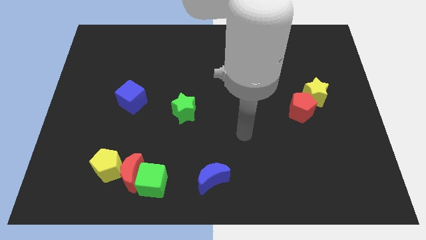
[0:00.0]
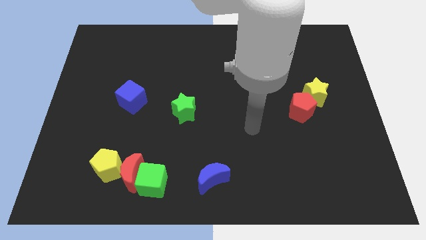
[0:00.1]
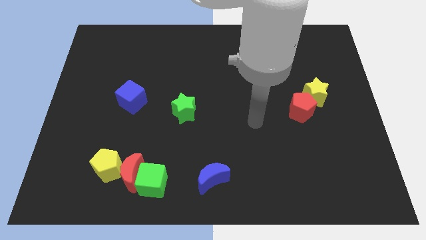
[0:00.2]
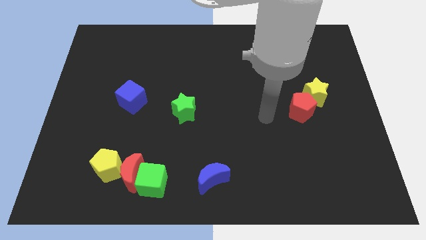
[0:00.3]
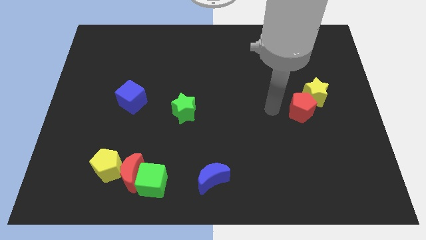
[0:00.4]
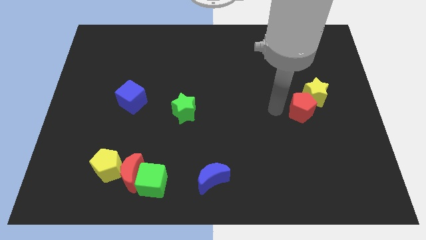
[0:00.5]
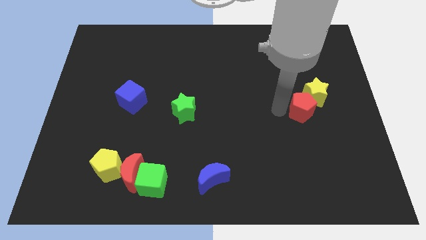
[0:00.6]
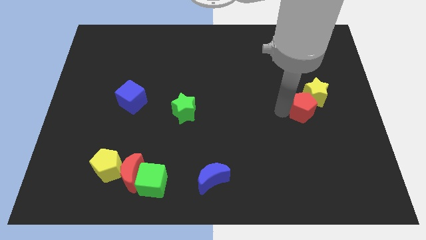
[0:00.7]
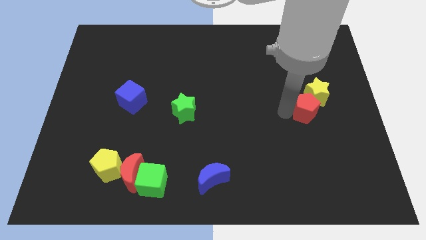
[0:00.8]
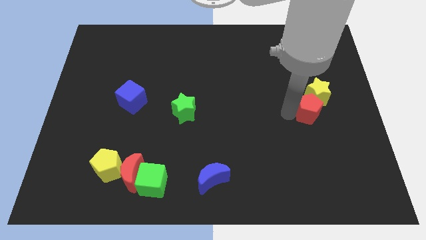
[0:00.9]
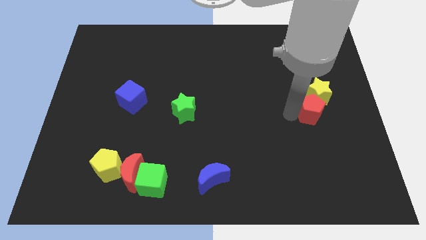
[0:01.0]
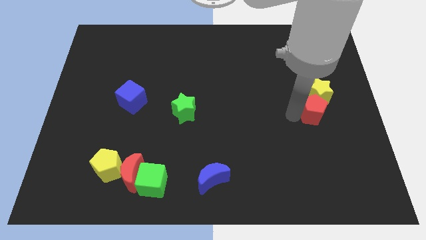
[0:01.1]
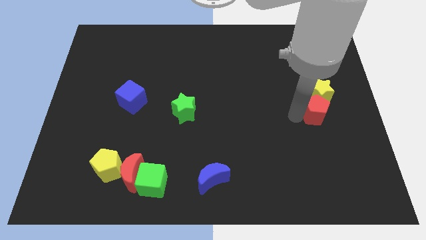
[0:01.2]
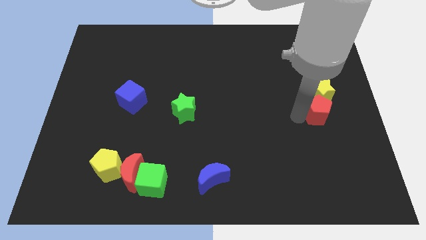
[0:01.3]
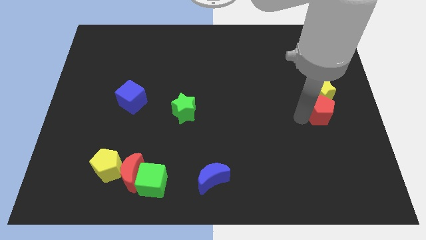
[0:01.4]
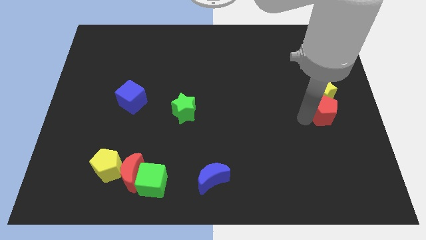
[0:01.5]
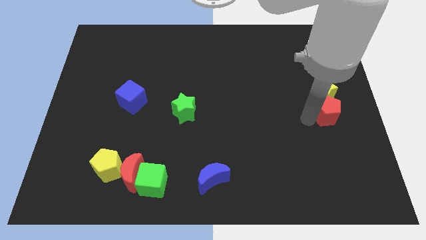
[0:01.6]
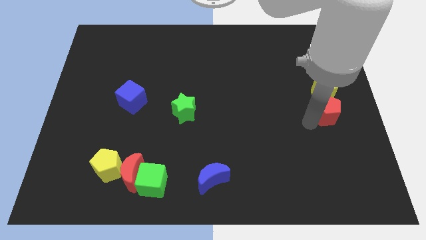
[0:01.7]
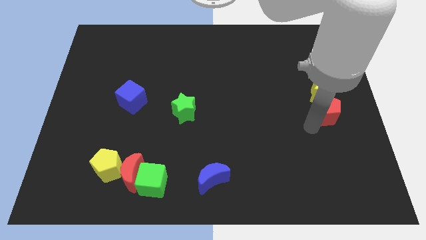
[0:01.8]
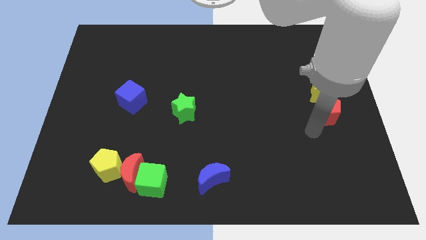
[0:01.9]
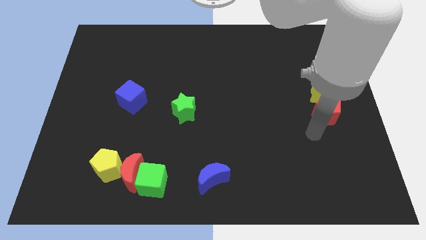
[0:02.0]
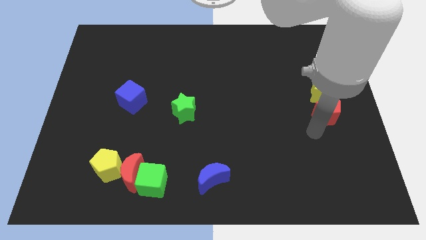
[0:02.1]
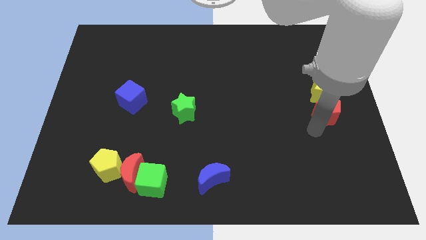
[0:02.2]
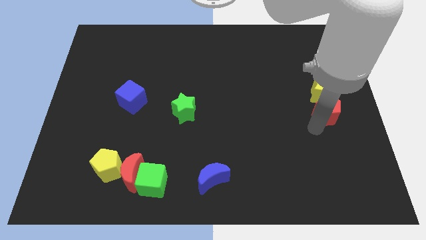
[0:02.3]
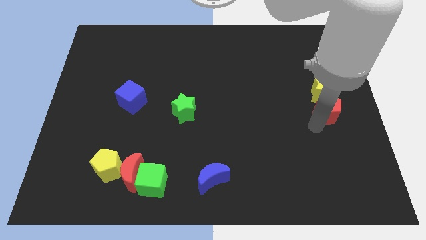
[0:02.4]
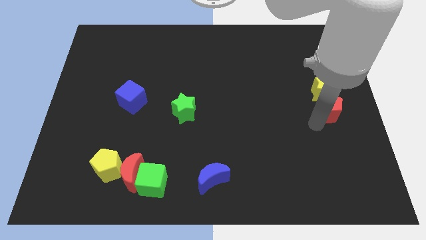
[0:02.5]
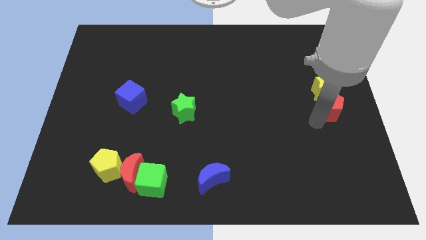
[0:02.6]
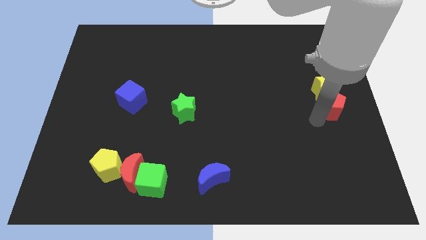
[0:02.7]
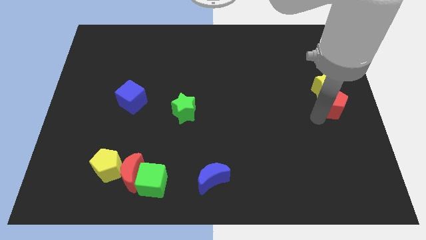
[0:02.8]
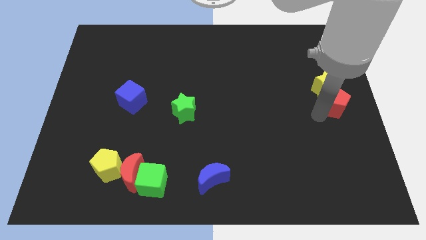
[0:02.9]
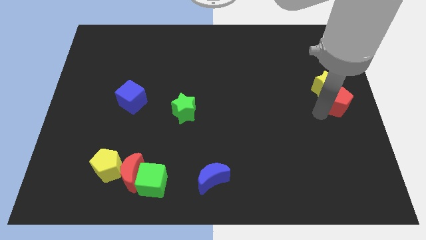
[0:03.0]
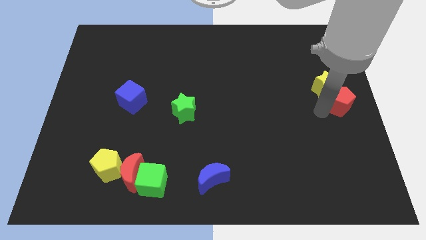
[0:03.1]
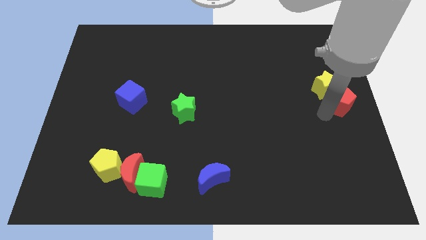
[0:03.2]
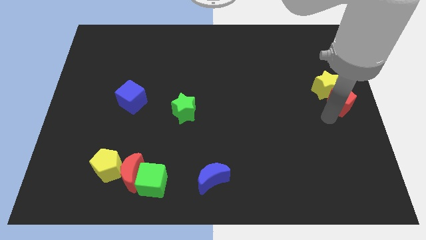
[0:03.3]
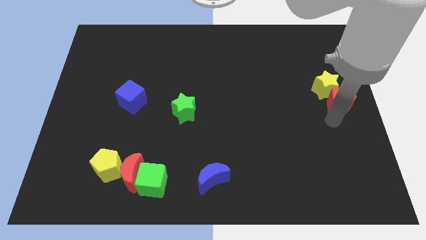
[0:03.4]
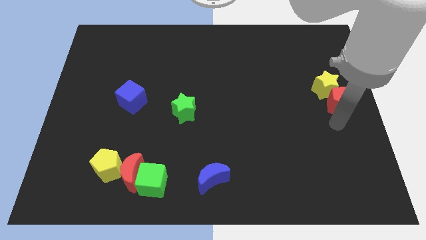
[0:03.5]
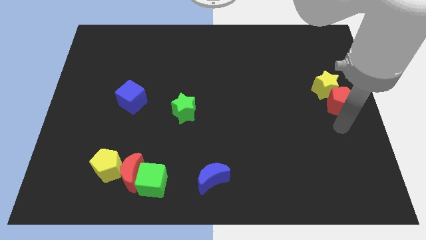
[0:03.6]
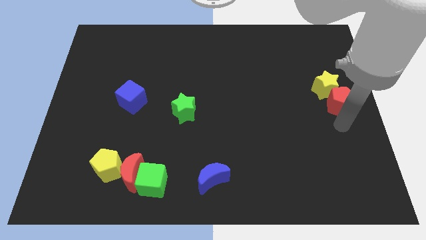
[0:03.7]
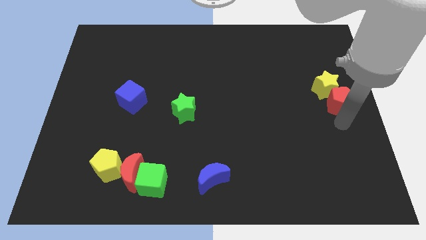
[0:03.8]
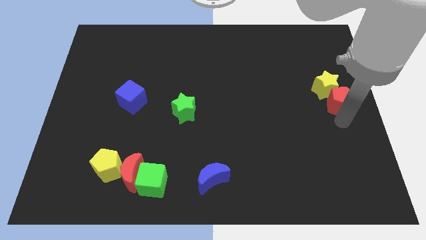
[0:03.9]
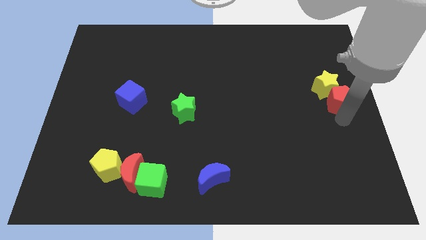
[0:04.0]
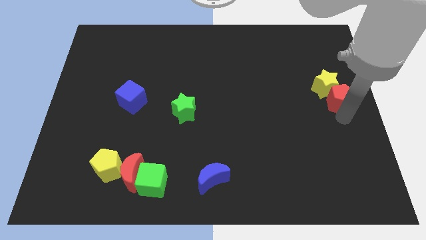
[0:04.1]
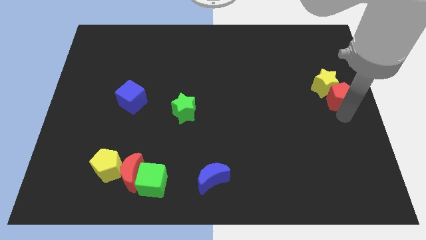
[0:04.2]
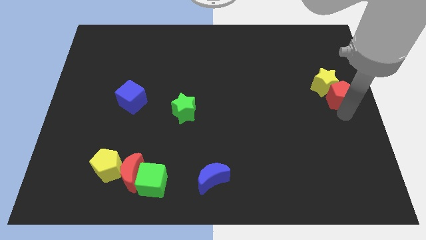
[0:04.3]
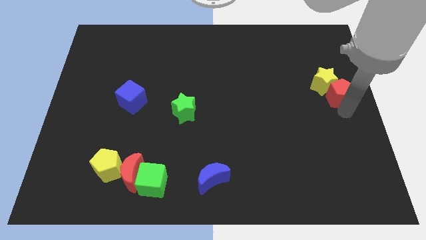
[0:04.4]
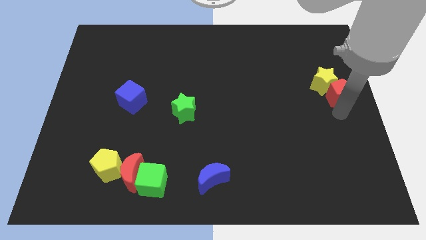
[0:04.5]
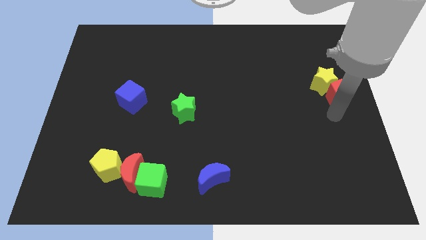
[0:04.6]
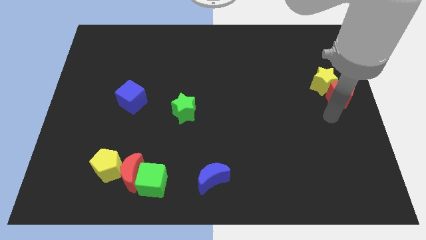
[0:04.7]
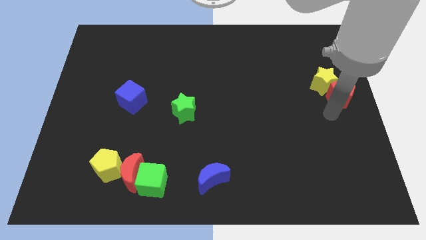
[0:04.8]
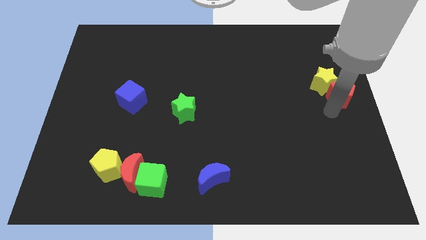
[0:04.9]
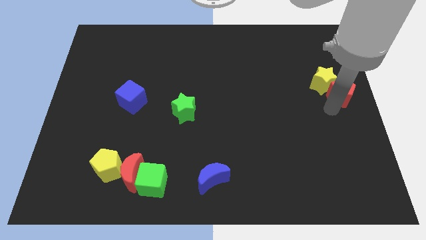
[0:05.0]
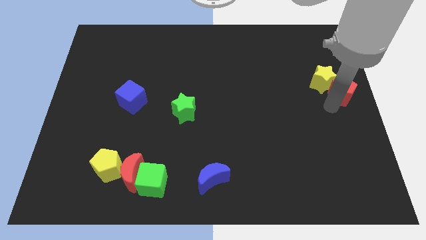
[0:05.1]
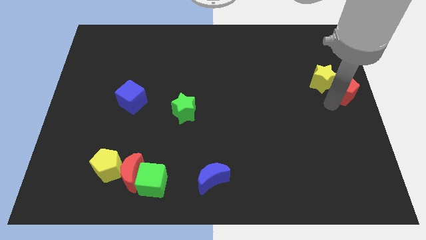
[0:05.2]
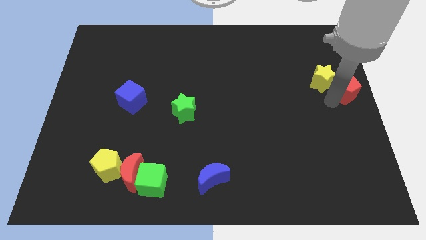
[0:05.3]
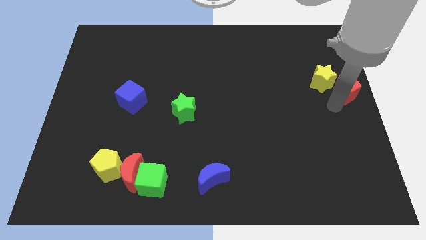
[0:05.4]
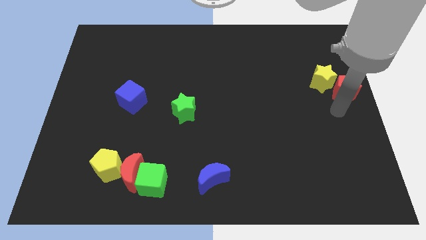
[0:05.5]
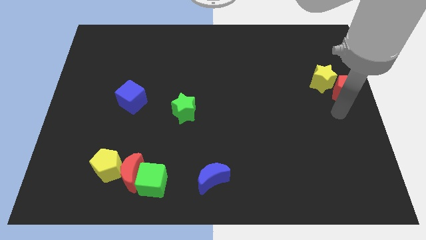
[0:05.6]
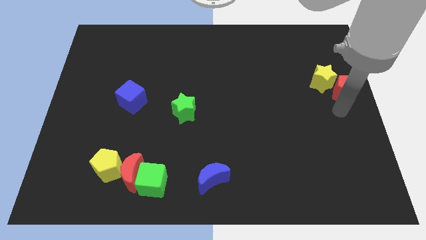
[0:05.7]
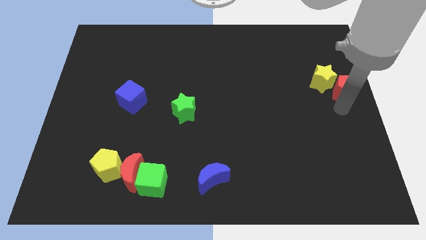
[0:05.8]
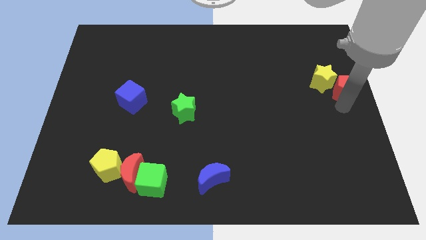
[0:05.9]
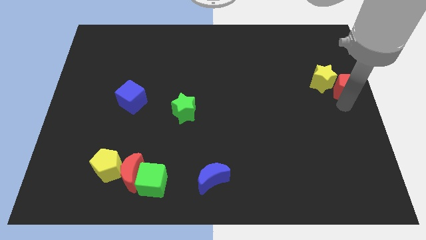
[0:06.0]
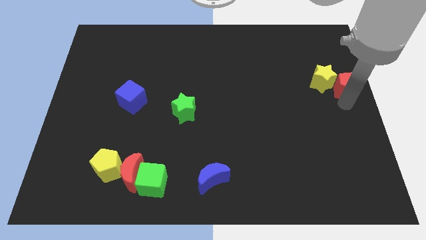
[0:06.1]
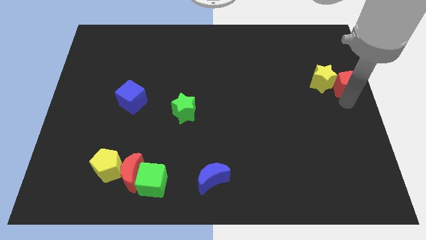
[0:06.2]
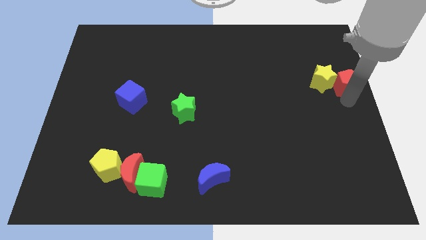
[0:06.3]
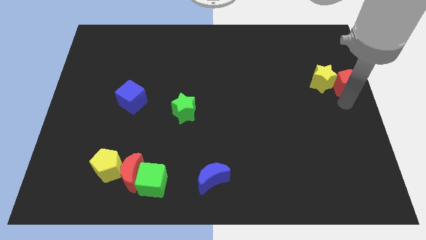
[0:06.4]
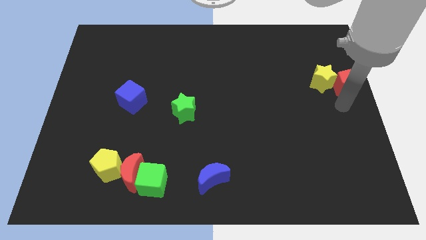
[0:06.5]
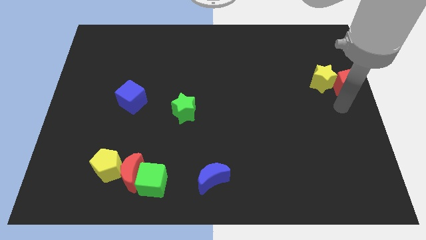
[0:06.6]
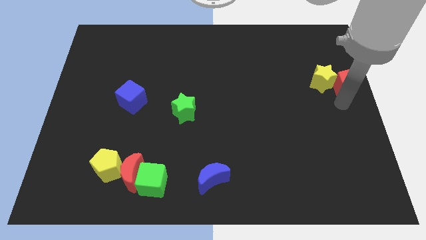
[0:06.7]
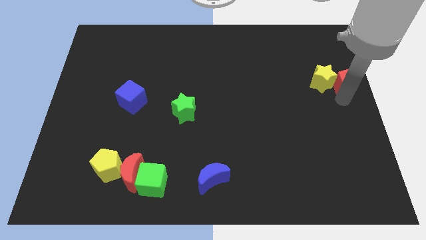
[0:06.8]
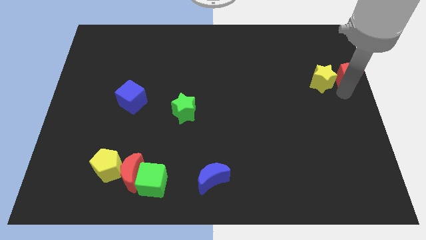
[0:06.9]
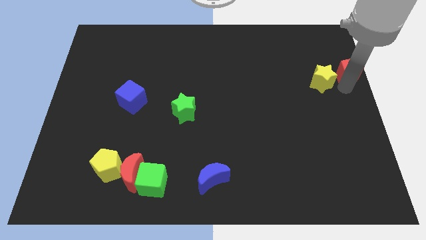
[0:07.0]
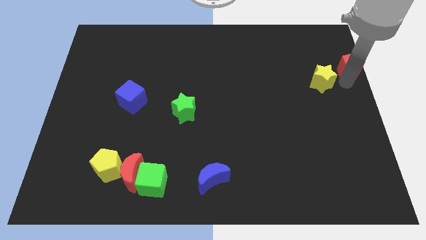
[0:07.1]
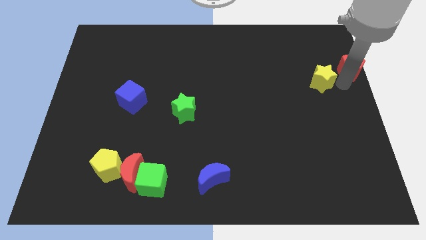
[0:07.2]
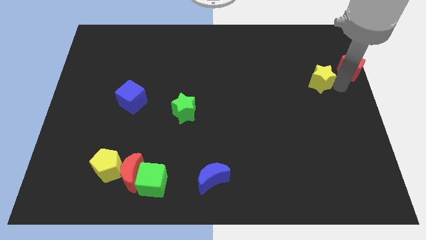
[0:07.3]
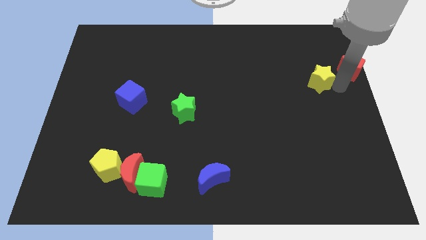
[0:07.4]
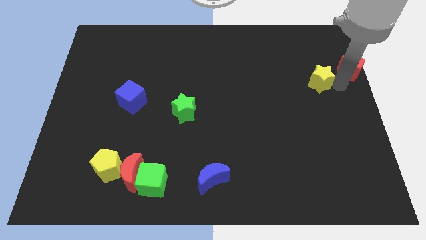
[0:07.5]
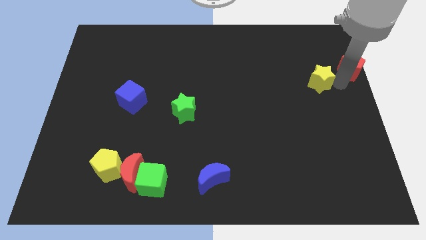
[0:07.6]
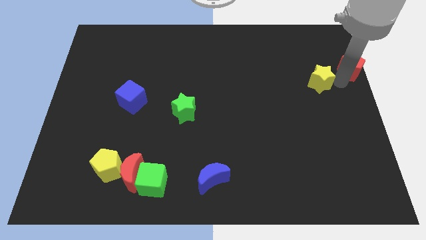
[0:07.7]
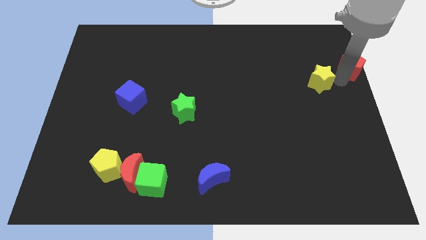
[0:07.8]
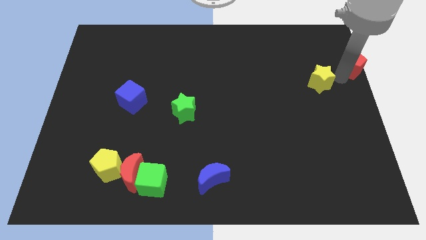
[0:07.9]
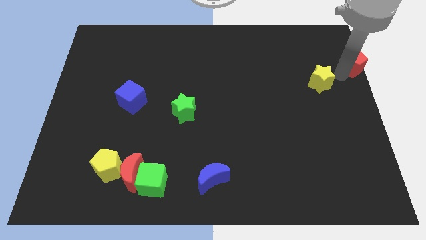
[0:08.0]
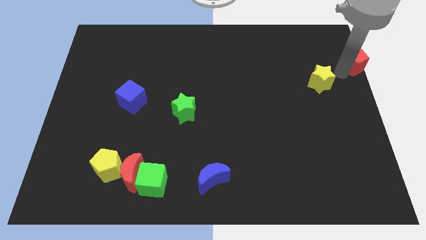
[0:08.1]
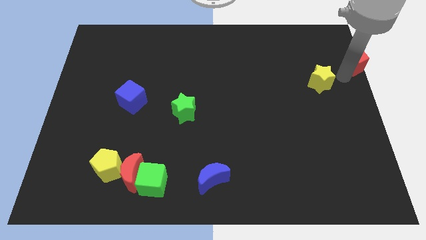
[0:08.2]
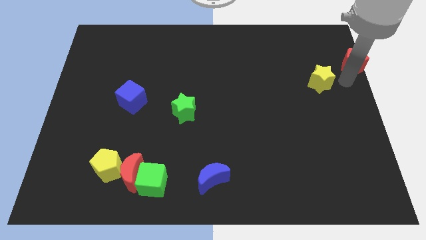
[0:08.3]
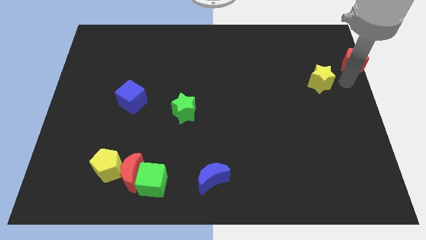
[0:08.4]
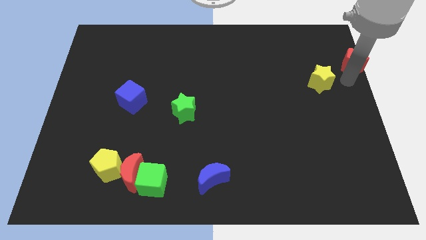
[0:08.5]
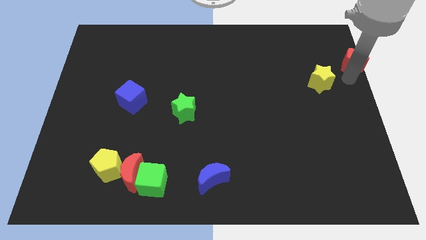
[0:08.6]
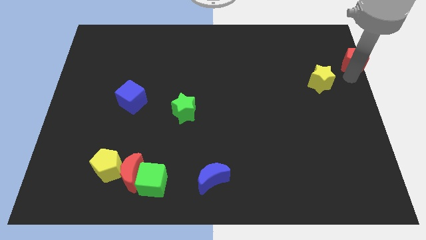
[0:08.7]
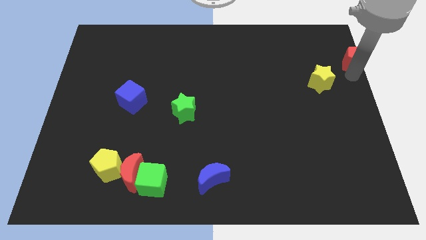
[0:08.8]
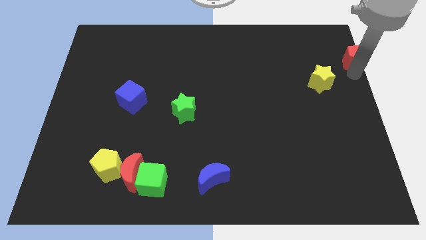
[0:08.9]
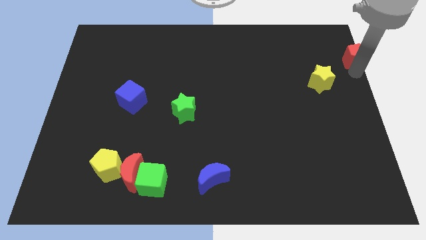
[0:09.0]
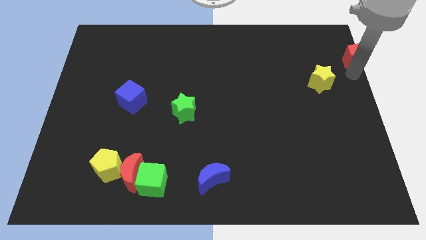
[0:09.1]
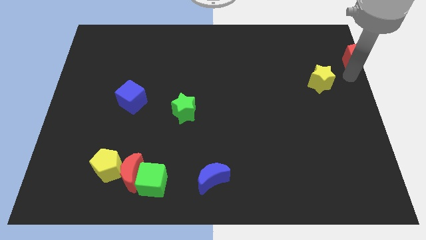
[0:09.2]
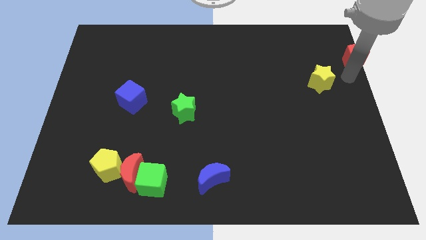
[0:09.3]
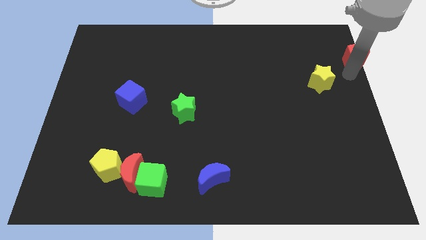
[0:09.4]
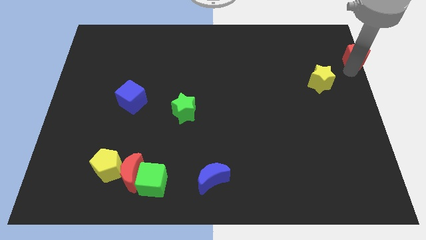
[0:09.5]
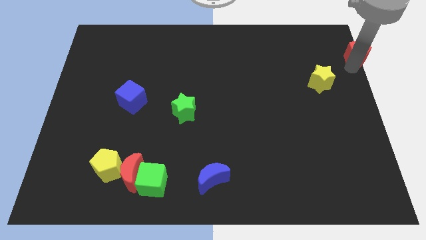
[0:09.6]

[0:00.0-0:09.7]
put the red pentagon to the top right corner
